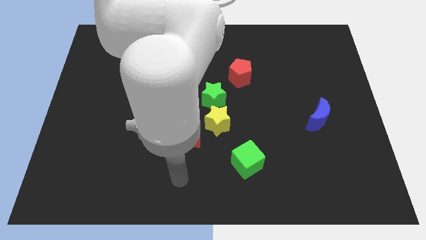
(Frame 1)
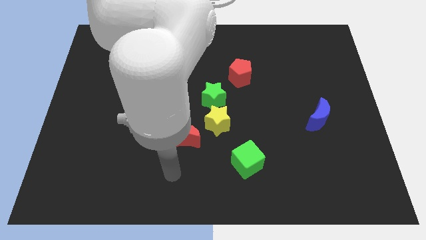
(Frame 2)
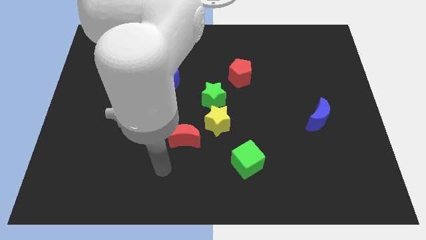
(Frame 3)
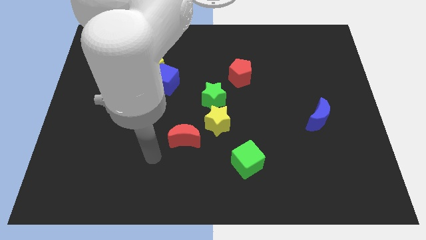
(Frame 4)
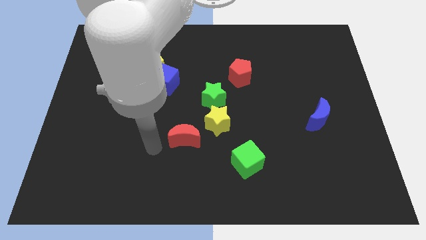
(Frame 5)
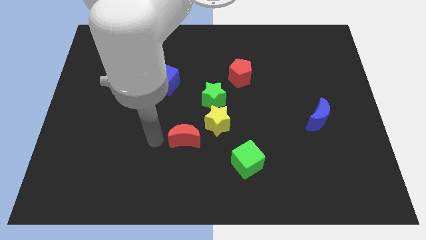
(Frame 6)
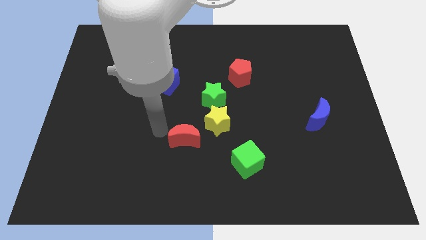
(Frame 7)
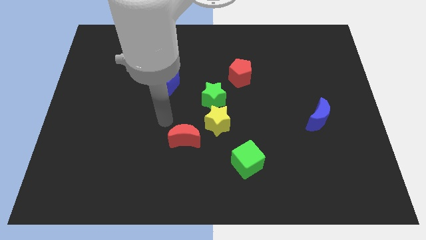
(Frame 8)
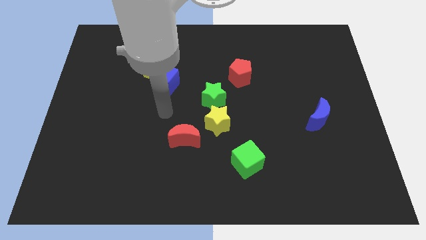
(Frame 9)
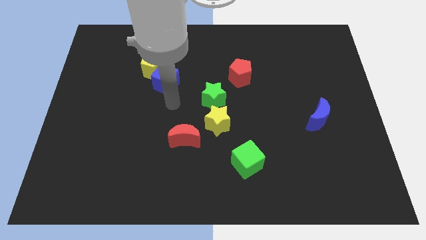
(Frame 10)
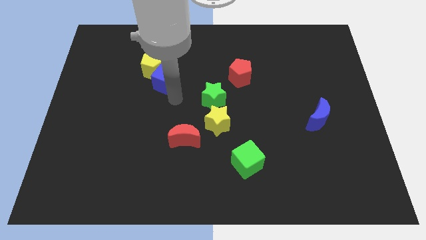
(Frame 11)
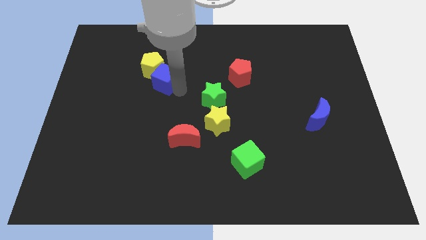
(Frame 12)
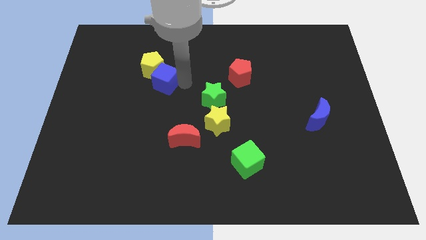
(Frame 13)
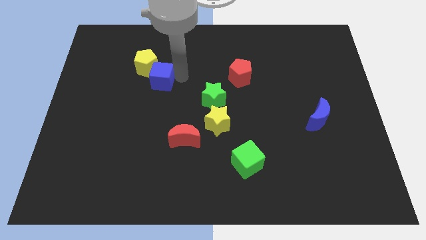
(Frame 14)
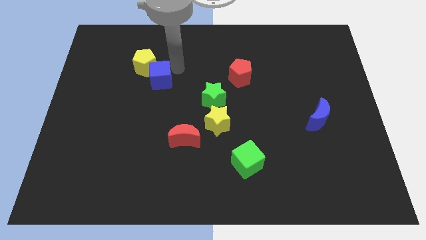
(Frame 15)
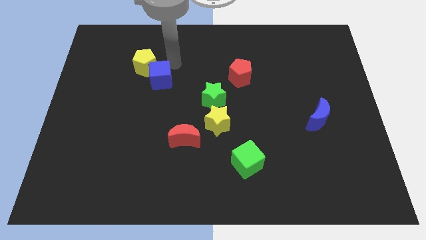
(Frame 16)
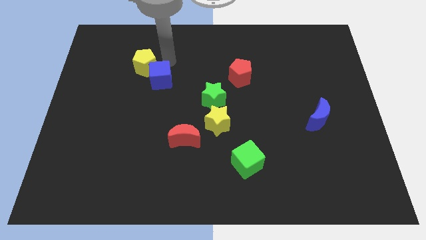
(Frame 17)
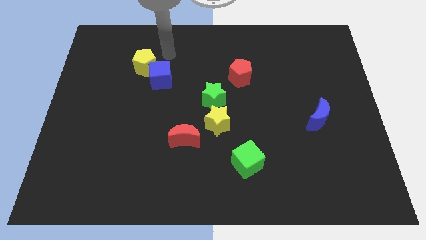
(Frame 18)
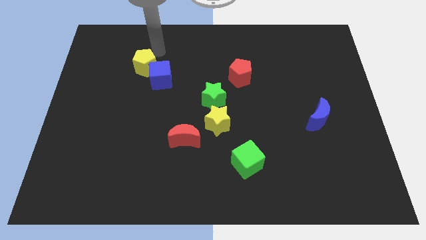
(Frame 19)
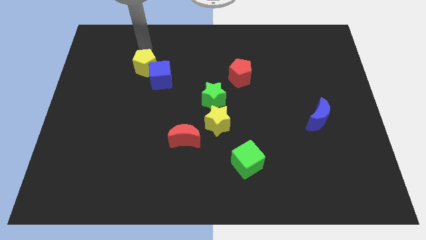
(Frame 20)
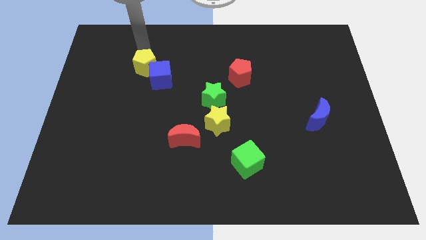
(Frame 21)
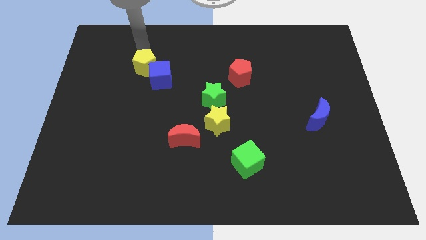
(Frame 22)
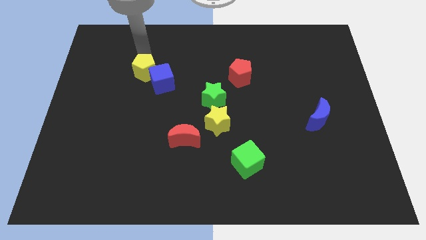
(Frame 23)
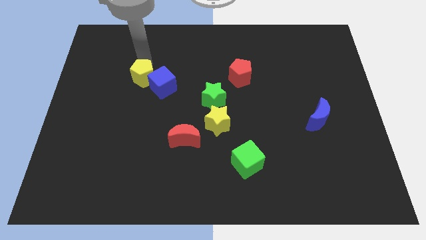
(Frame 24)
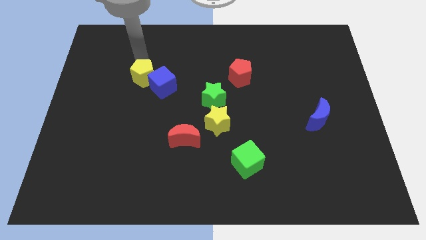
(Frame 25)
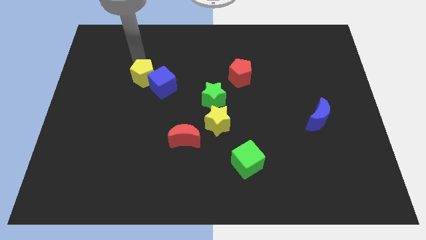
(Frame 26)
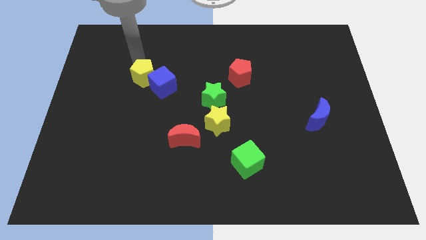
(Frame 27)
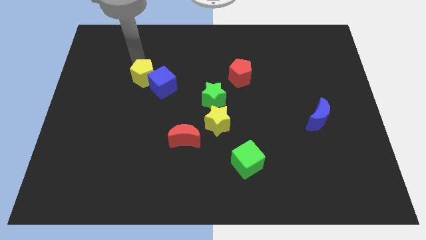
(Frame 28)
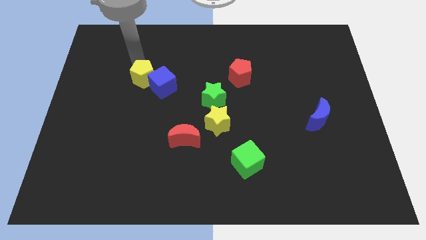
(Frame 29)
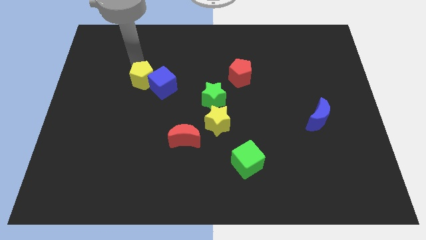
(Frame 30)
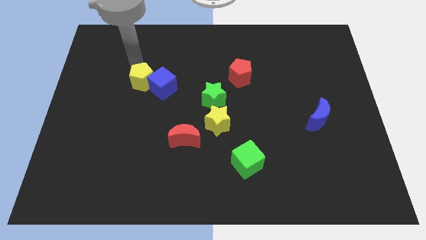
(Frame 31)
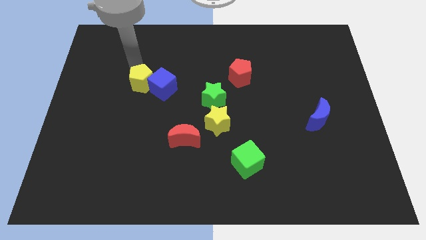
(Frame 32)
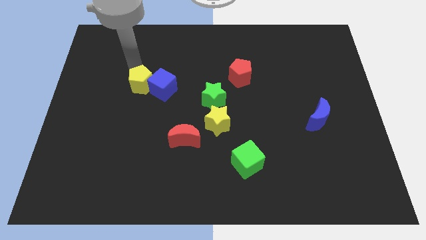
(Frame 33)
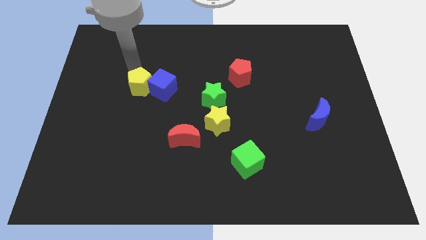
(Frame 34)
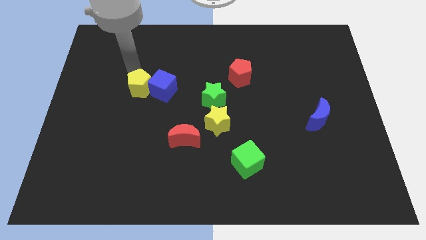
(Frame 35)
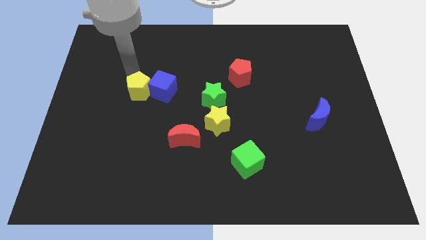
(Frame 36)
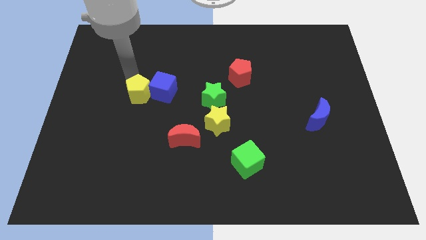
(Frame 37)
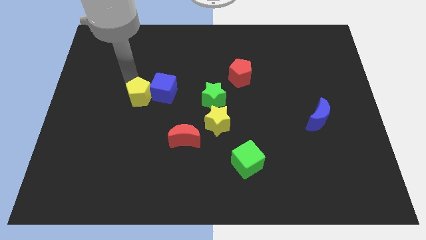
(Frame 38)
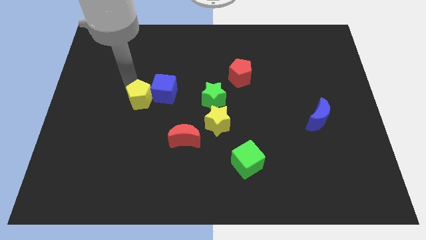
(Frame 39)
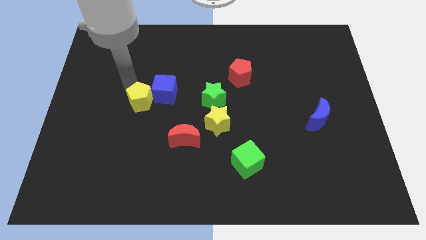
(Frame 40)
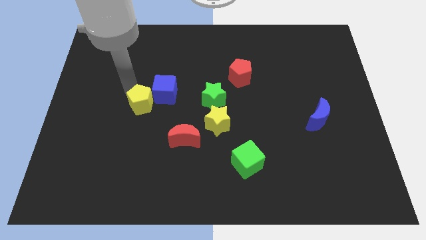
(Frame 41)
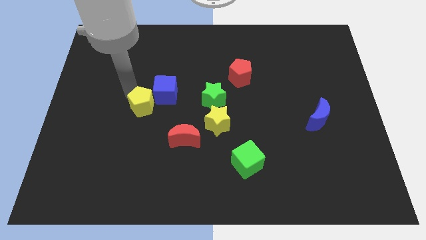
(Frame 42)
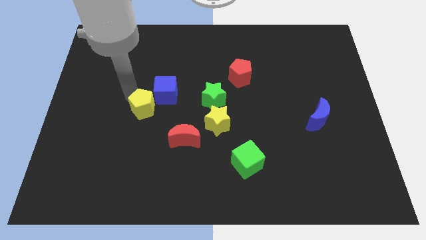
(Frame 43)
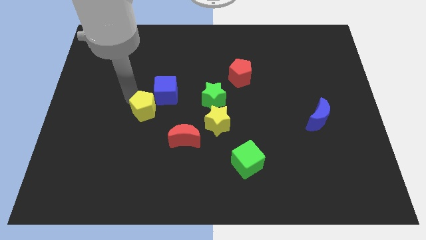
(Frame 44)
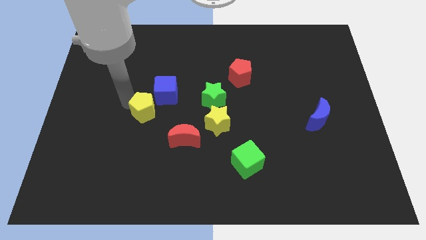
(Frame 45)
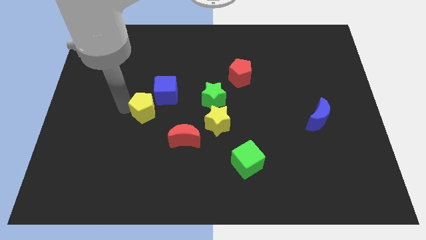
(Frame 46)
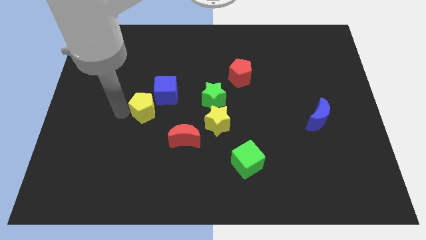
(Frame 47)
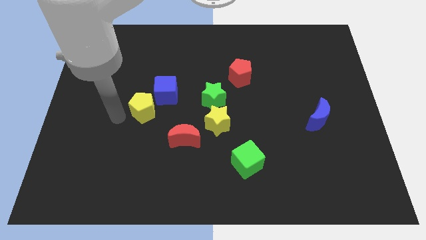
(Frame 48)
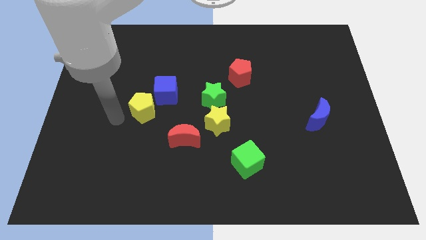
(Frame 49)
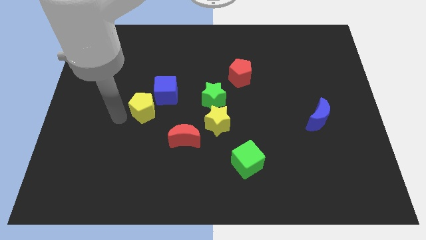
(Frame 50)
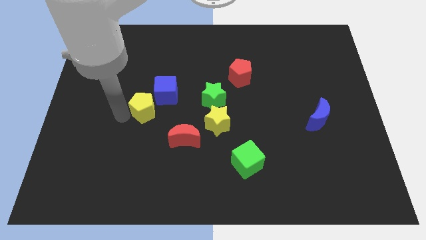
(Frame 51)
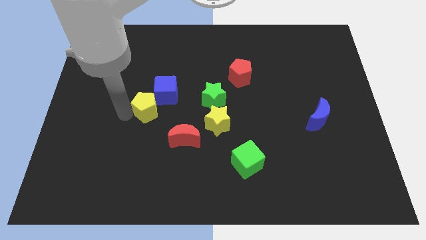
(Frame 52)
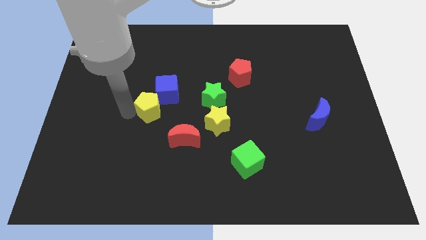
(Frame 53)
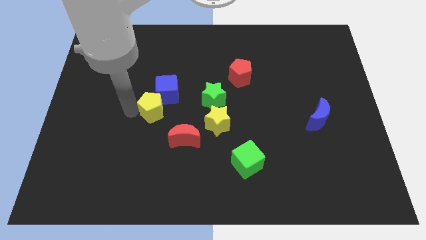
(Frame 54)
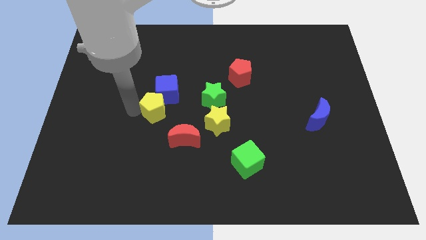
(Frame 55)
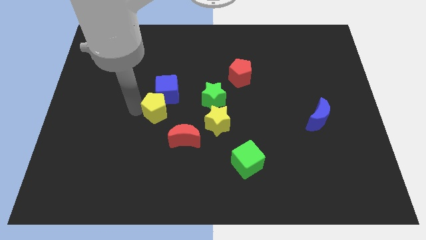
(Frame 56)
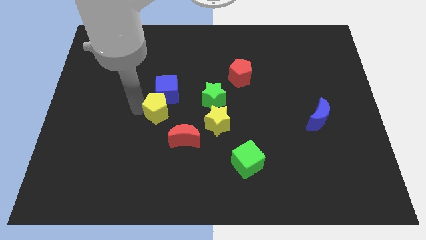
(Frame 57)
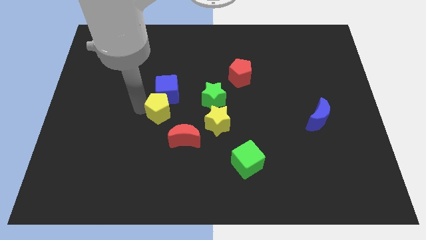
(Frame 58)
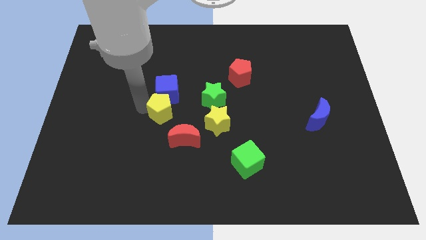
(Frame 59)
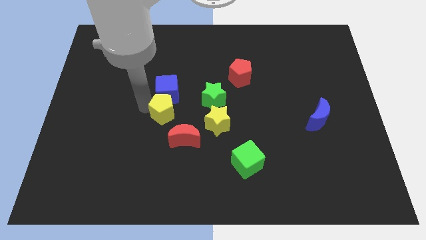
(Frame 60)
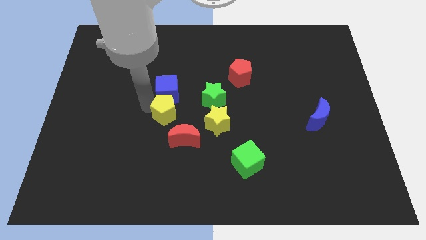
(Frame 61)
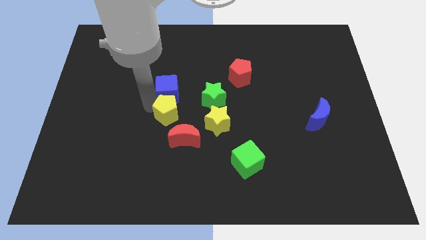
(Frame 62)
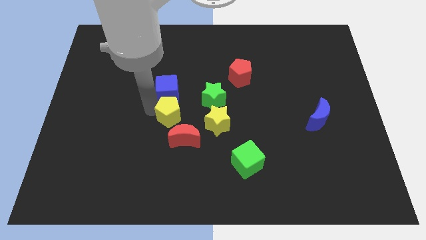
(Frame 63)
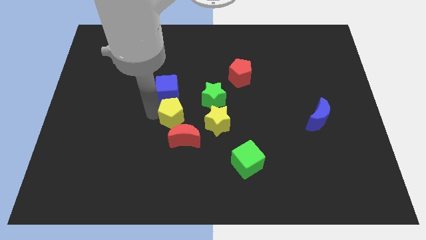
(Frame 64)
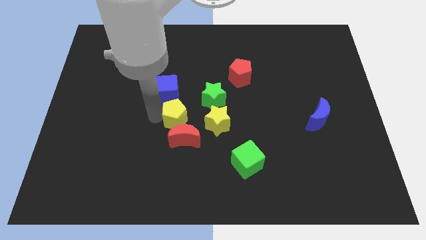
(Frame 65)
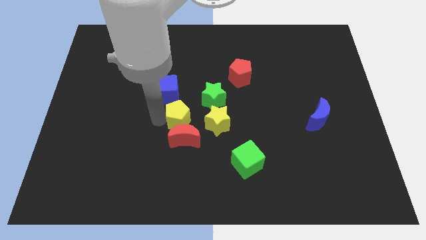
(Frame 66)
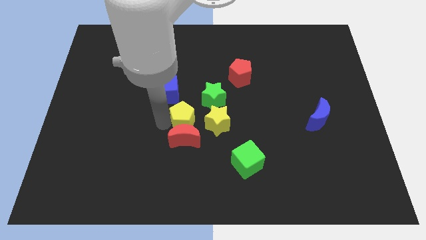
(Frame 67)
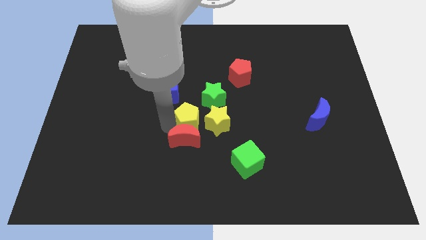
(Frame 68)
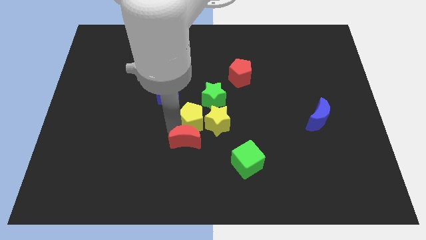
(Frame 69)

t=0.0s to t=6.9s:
slide the yellow pentagon towards the yellow star
